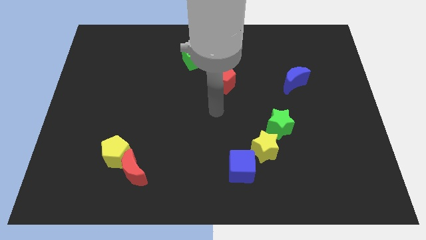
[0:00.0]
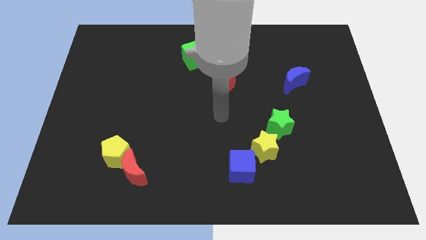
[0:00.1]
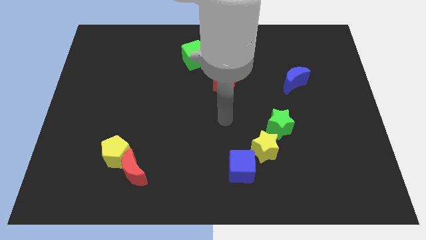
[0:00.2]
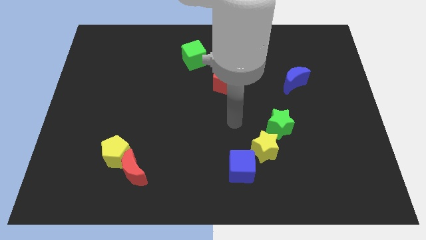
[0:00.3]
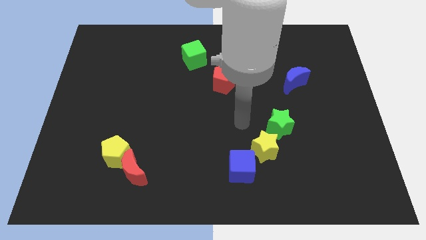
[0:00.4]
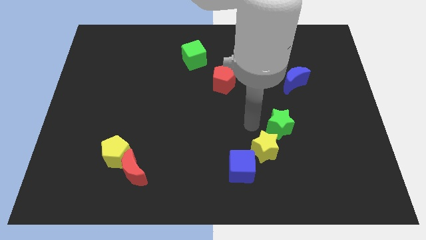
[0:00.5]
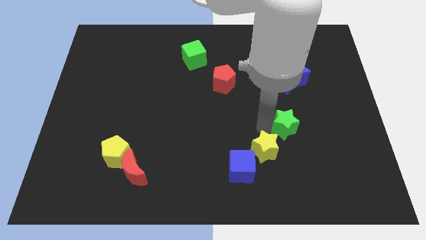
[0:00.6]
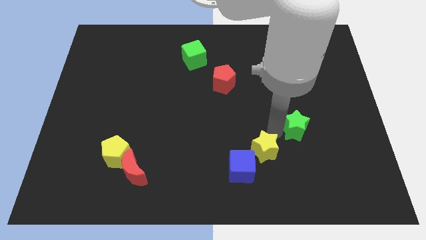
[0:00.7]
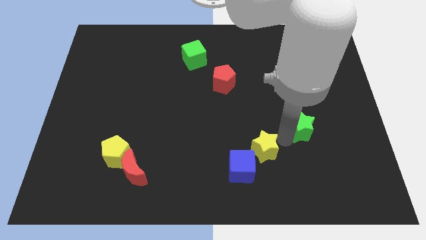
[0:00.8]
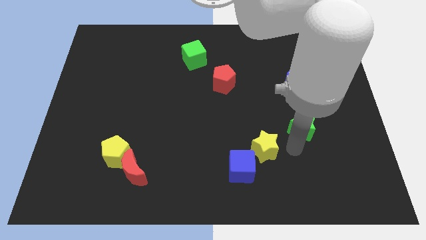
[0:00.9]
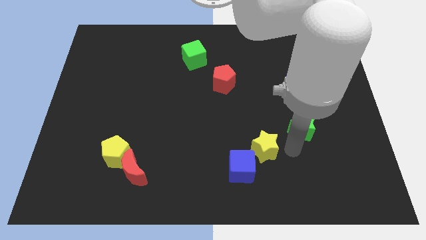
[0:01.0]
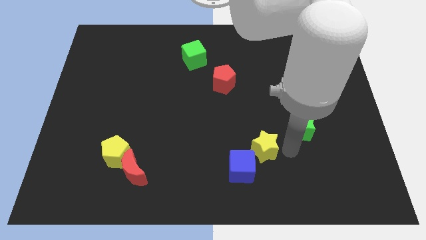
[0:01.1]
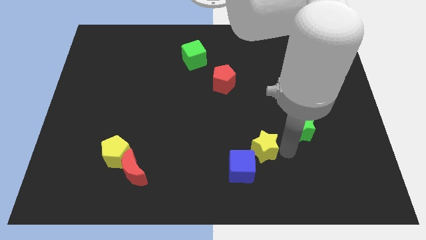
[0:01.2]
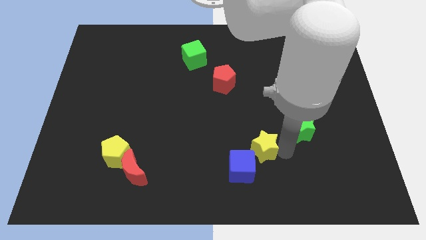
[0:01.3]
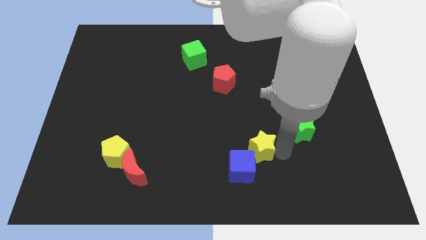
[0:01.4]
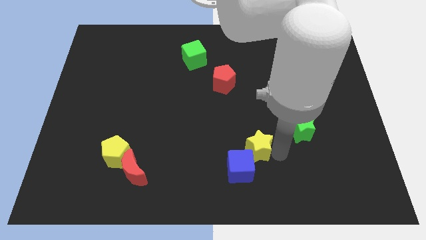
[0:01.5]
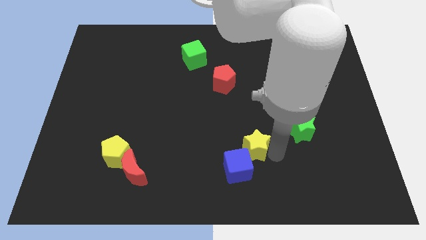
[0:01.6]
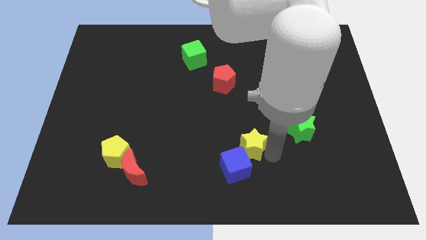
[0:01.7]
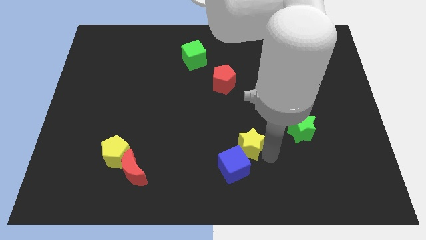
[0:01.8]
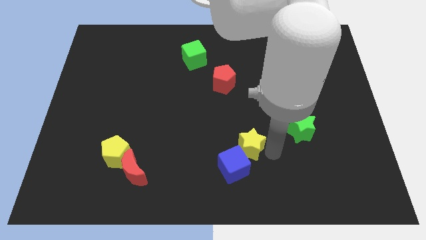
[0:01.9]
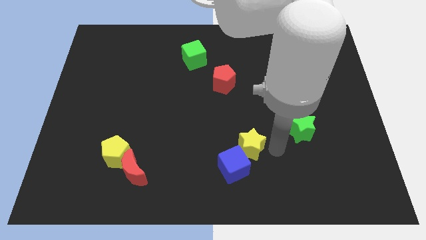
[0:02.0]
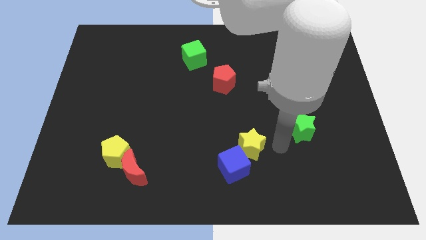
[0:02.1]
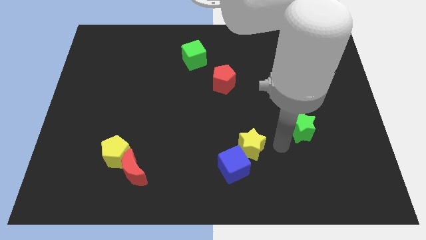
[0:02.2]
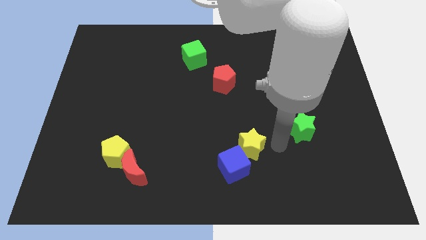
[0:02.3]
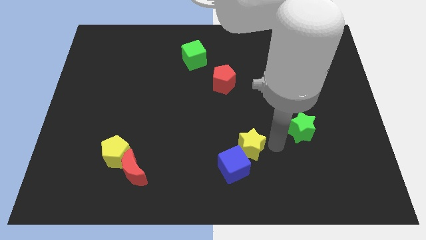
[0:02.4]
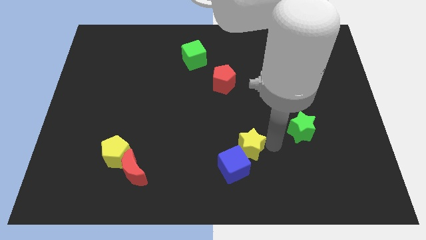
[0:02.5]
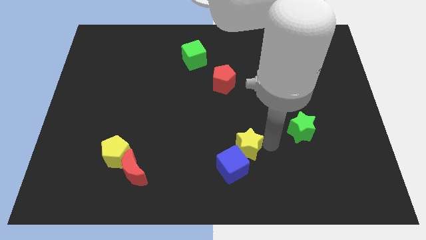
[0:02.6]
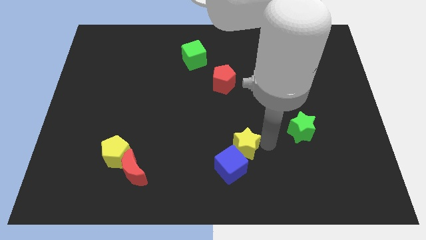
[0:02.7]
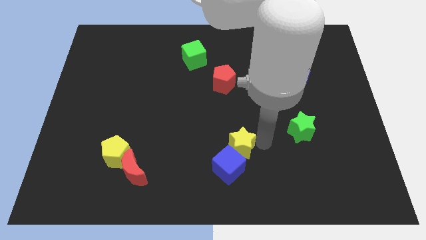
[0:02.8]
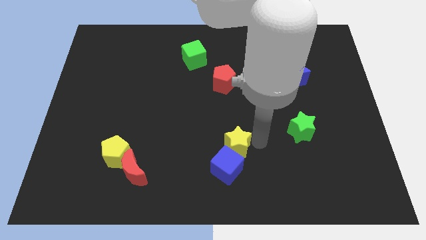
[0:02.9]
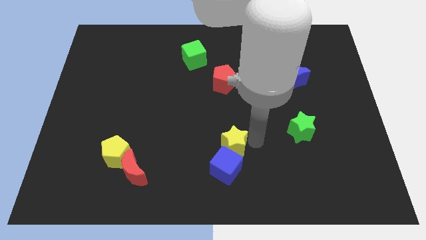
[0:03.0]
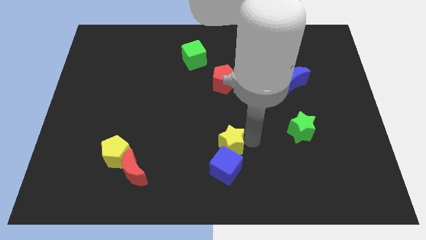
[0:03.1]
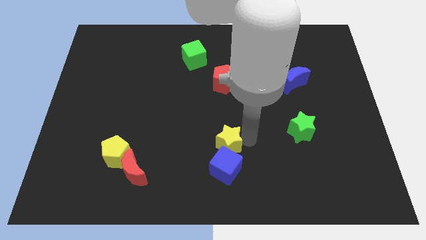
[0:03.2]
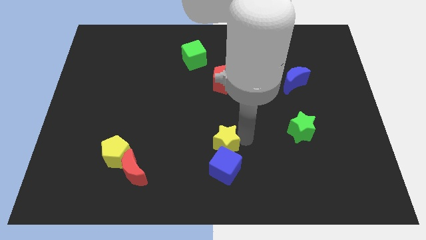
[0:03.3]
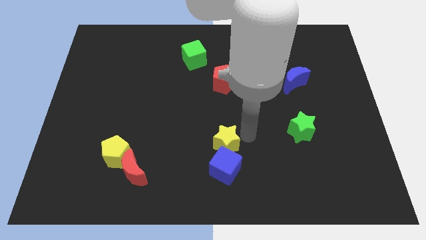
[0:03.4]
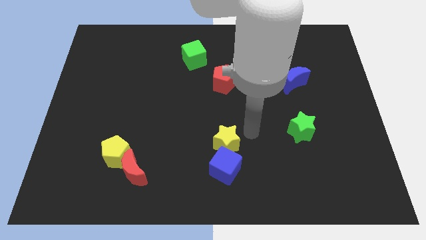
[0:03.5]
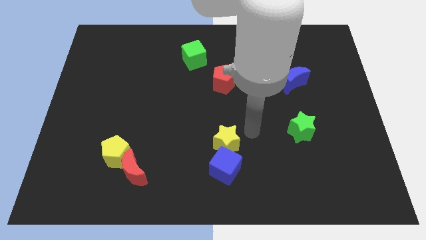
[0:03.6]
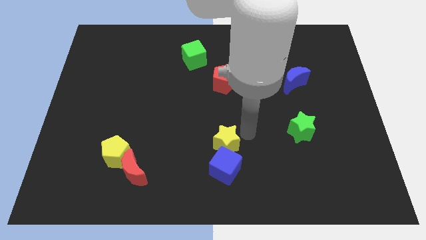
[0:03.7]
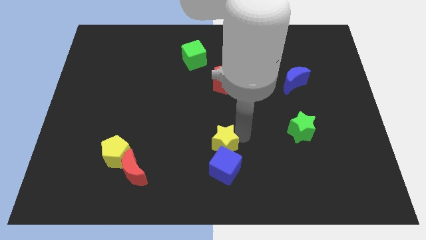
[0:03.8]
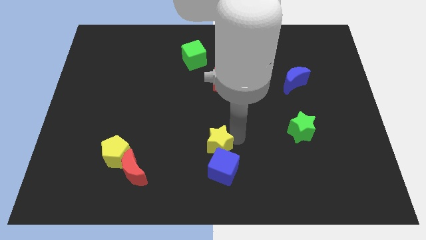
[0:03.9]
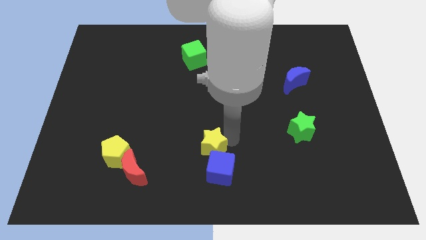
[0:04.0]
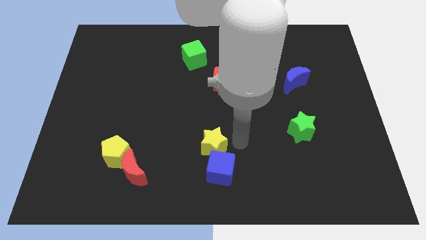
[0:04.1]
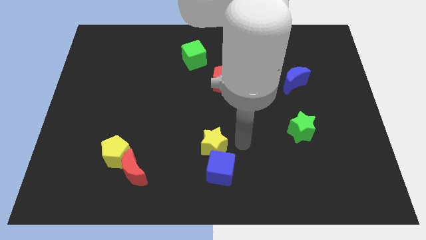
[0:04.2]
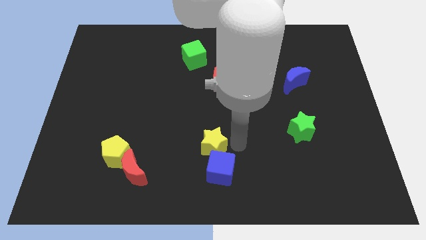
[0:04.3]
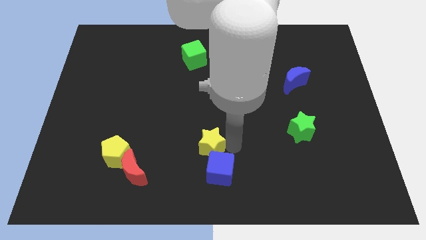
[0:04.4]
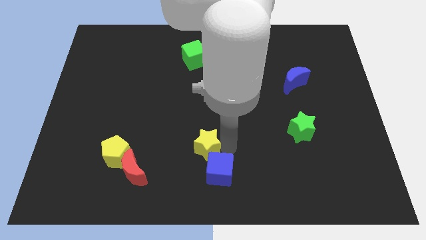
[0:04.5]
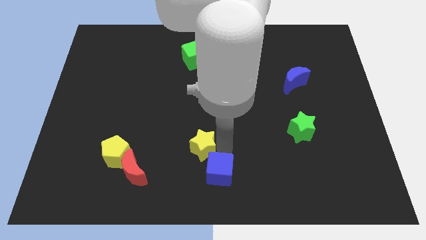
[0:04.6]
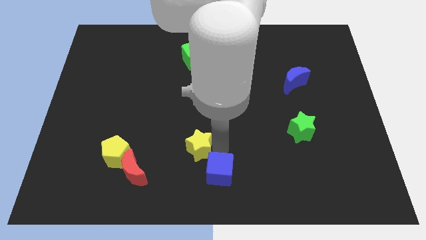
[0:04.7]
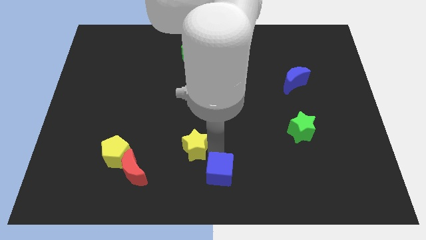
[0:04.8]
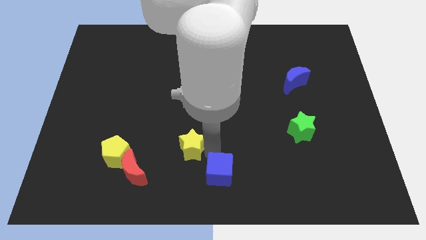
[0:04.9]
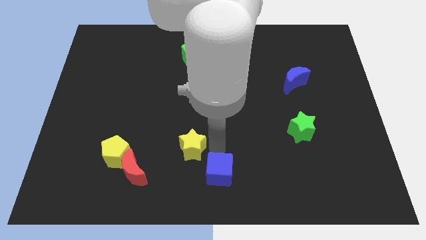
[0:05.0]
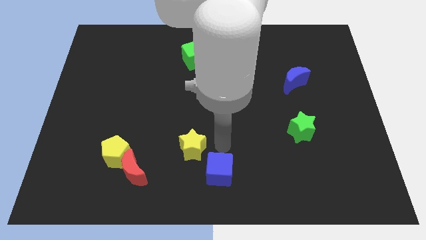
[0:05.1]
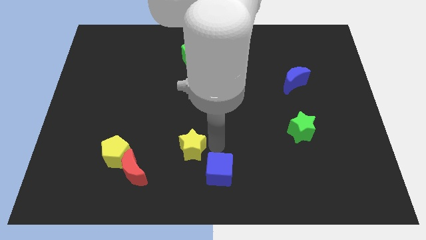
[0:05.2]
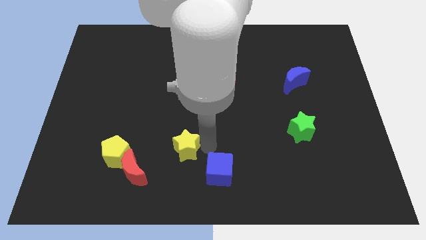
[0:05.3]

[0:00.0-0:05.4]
push the yellow star diagonally up and to the right of the red moon

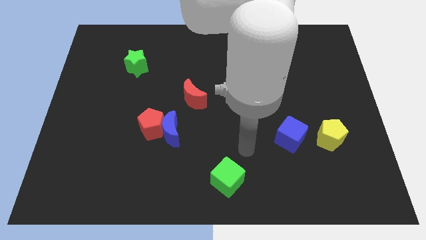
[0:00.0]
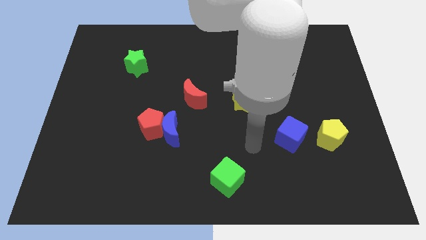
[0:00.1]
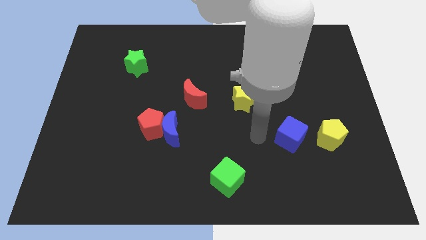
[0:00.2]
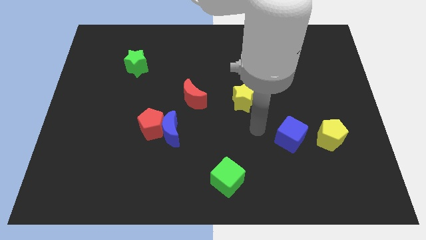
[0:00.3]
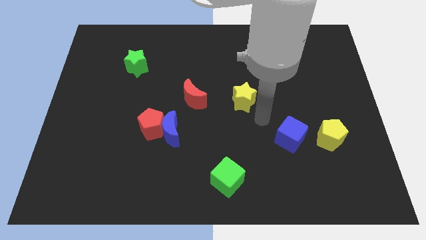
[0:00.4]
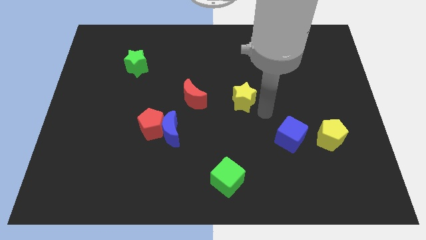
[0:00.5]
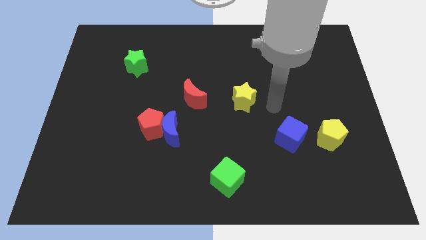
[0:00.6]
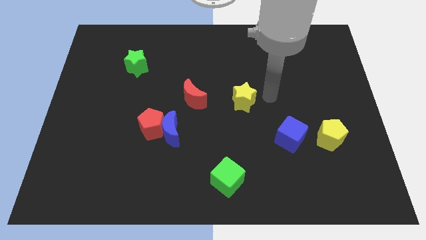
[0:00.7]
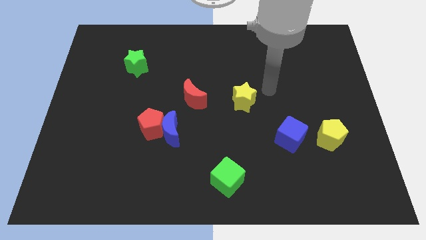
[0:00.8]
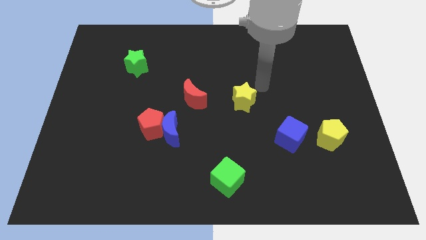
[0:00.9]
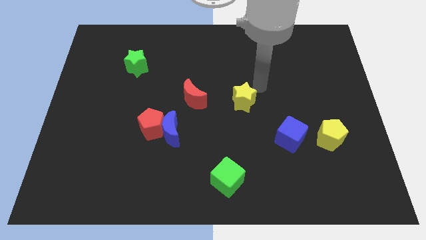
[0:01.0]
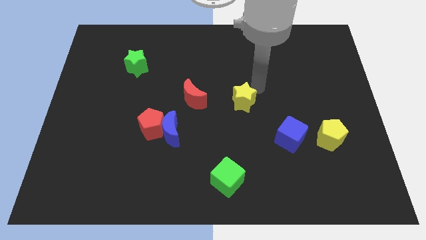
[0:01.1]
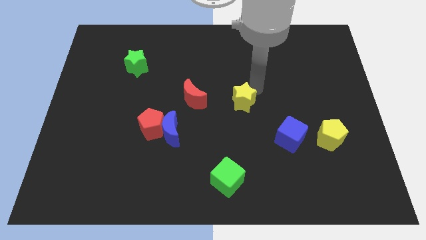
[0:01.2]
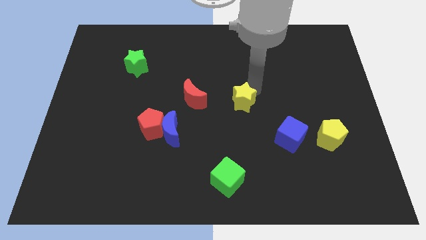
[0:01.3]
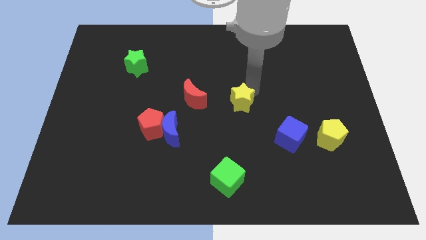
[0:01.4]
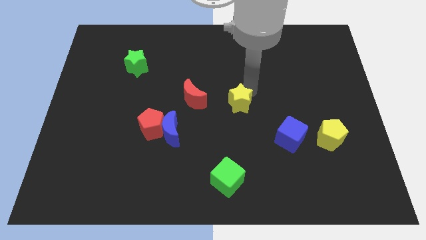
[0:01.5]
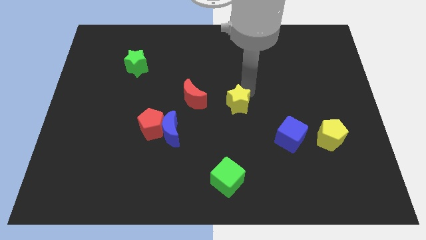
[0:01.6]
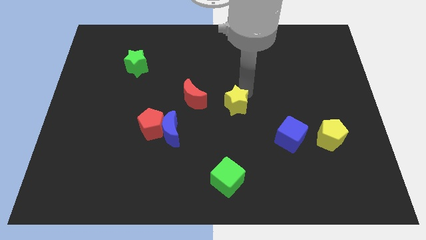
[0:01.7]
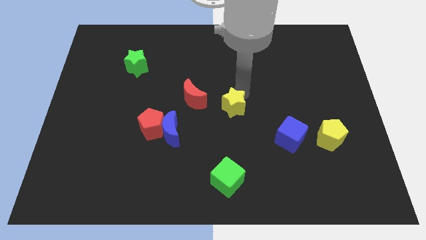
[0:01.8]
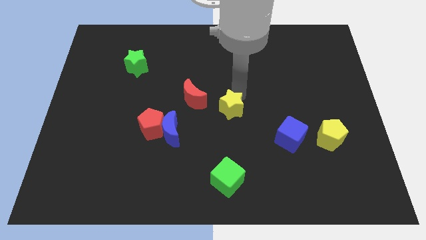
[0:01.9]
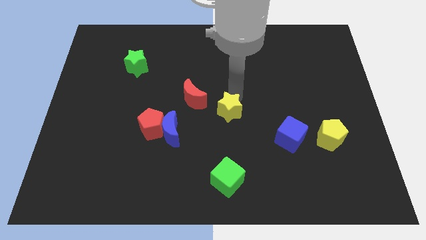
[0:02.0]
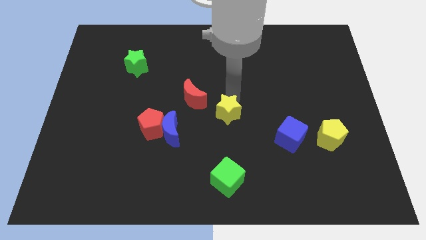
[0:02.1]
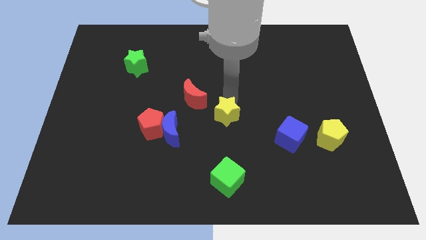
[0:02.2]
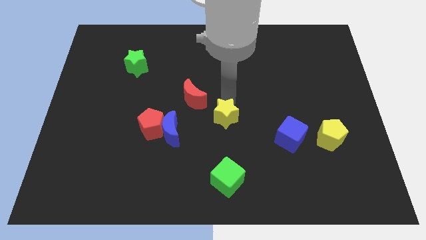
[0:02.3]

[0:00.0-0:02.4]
slide the yellow star just right of the blue moon
